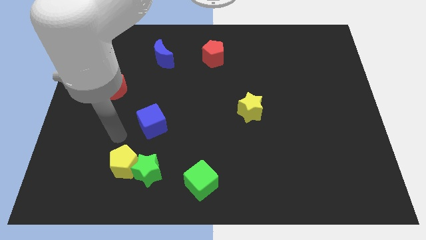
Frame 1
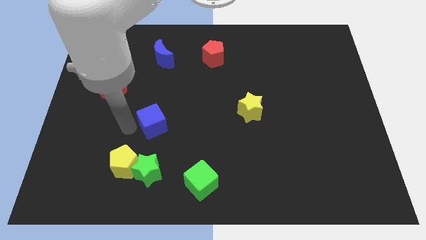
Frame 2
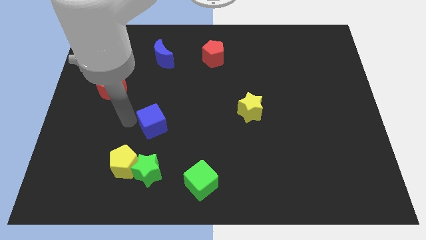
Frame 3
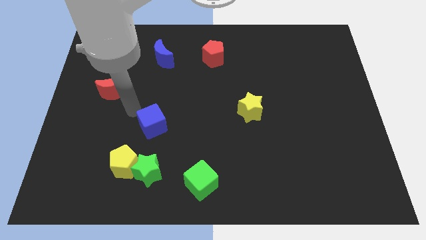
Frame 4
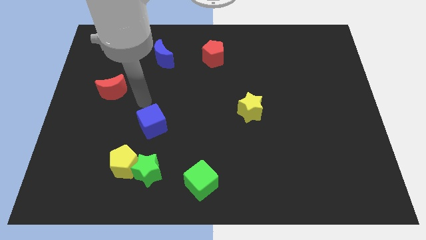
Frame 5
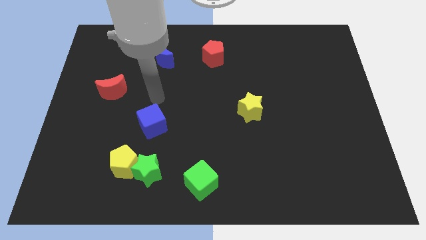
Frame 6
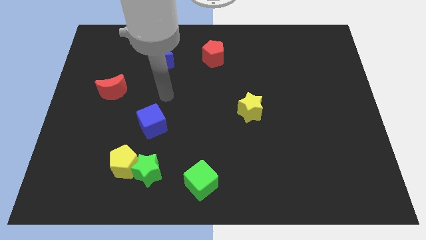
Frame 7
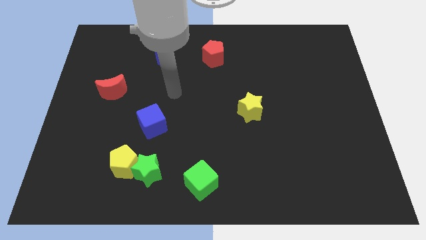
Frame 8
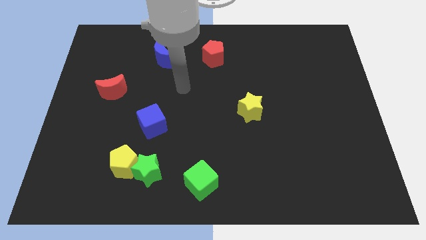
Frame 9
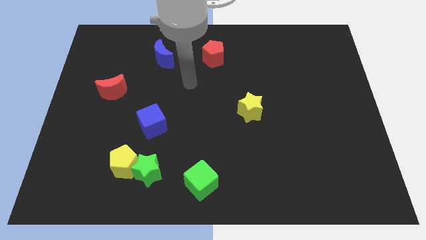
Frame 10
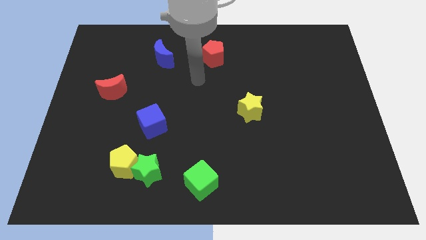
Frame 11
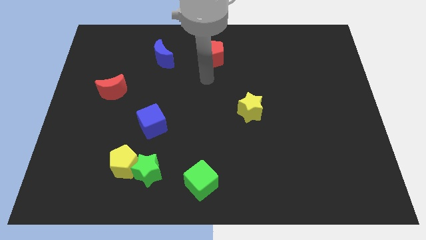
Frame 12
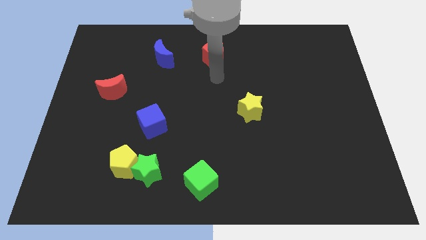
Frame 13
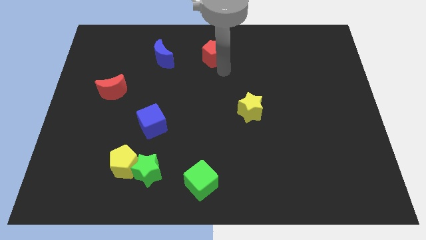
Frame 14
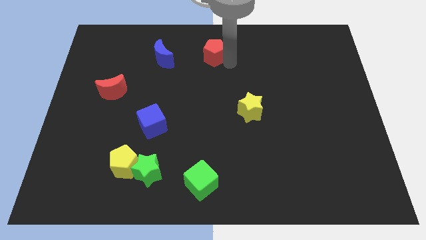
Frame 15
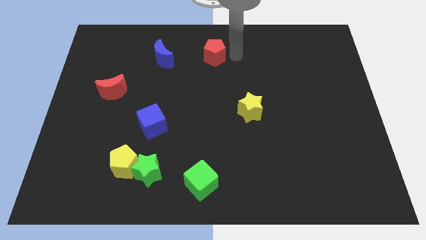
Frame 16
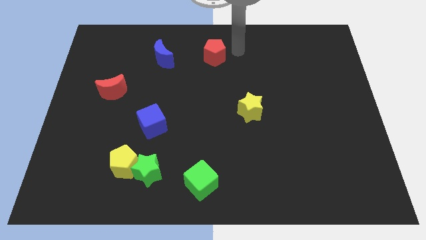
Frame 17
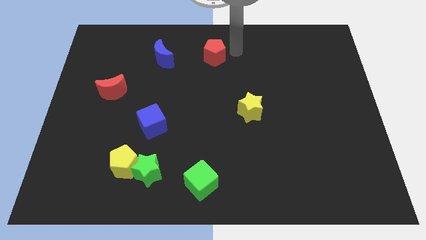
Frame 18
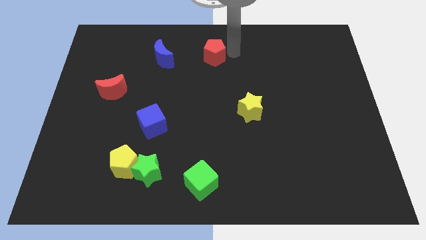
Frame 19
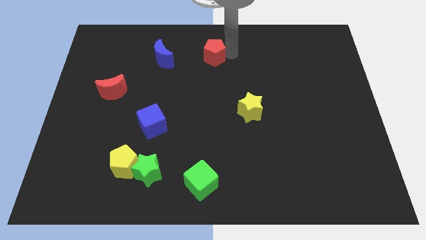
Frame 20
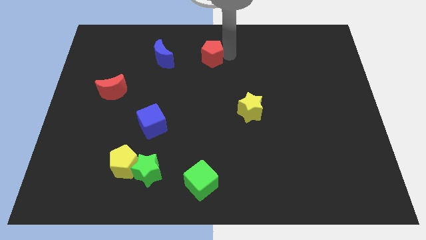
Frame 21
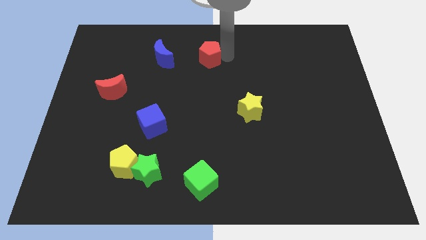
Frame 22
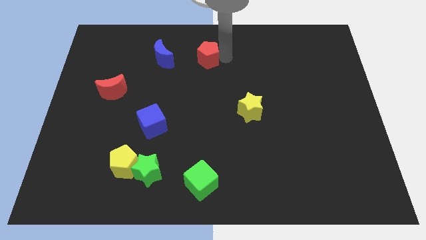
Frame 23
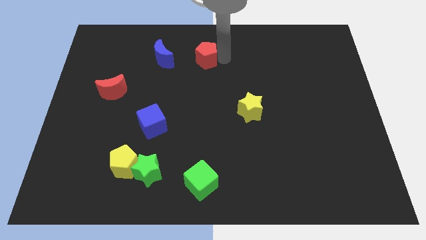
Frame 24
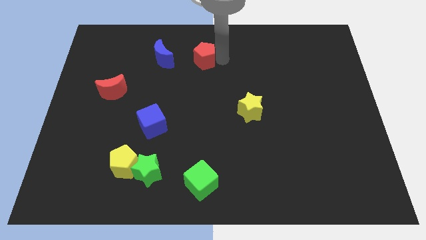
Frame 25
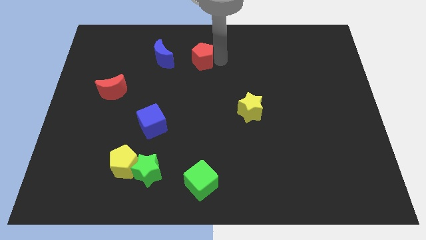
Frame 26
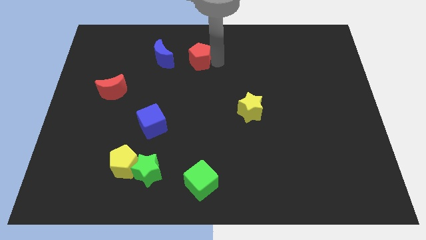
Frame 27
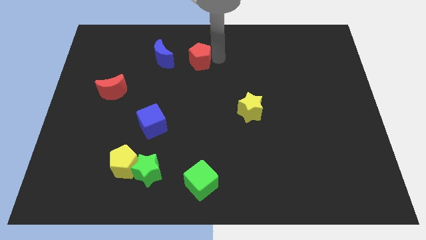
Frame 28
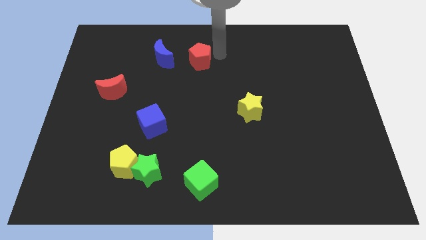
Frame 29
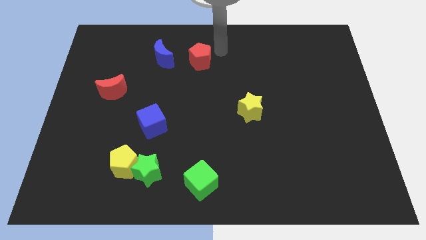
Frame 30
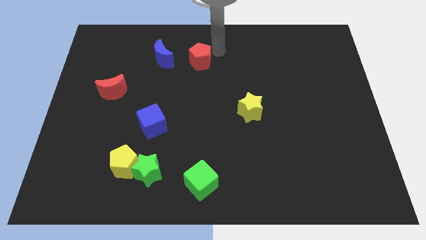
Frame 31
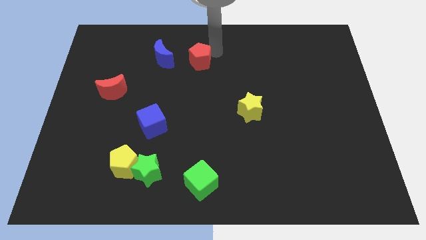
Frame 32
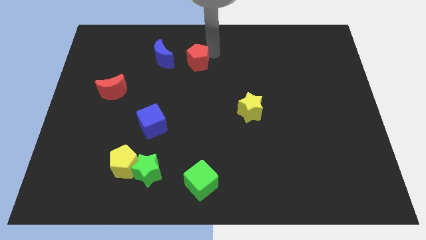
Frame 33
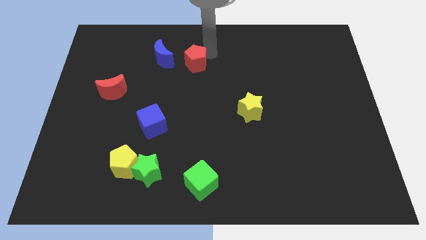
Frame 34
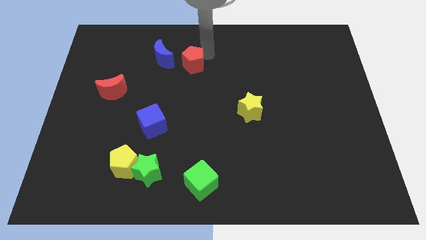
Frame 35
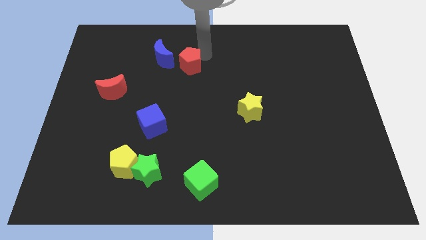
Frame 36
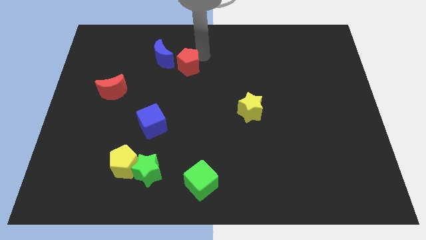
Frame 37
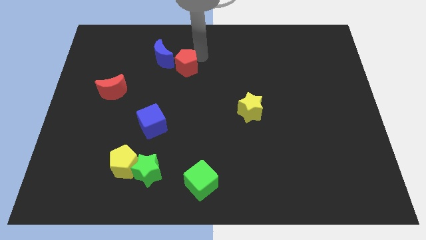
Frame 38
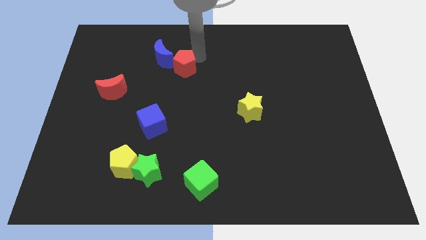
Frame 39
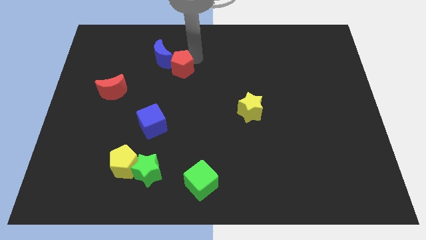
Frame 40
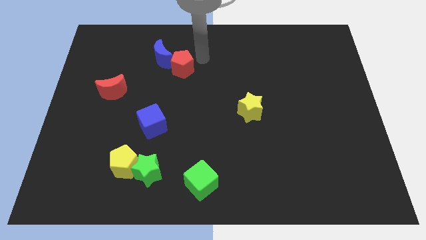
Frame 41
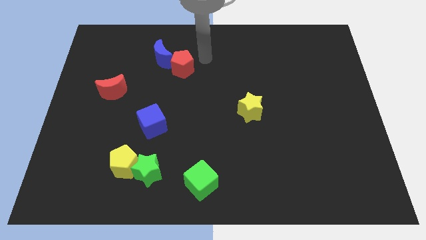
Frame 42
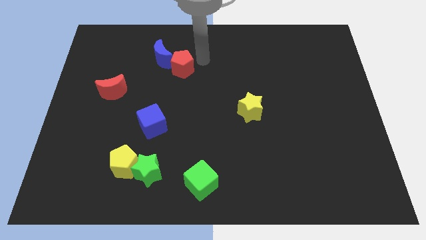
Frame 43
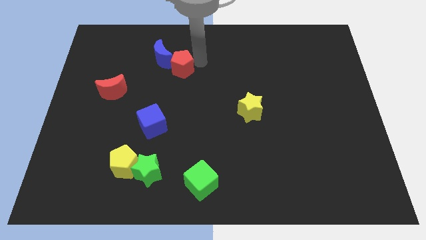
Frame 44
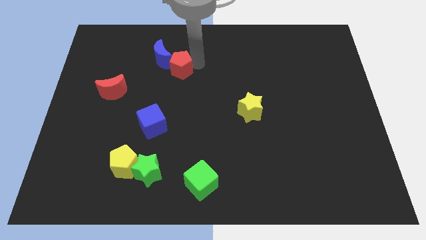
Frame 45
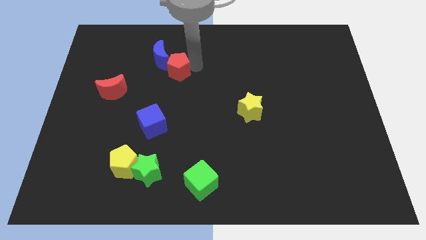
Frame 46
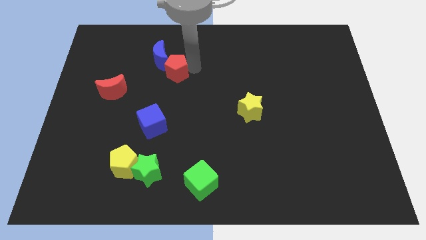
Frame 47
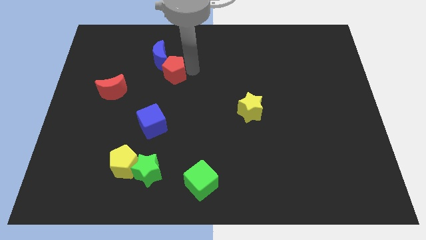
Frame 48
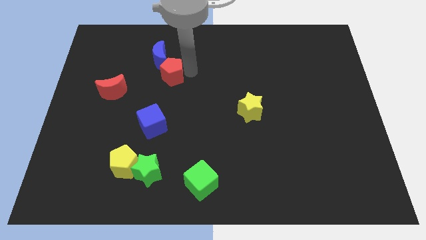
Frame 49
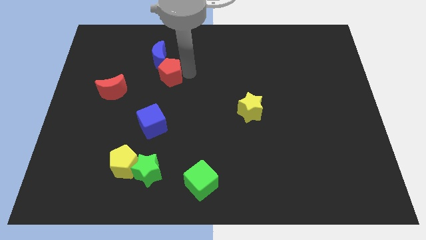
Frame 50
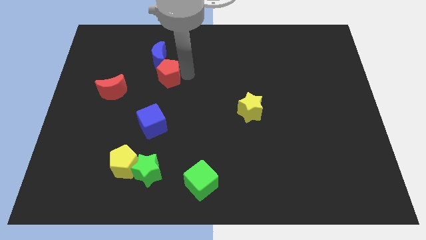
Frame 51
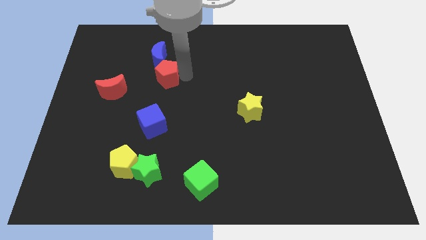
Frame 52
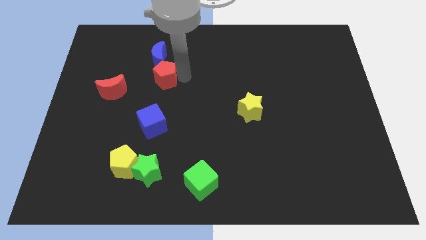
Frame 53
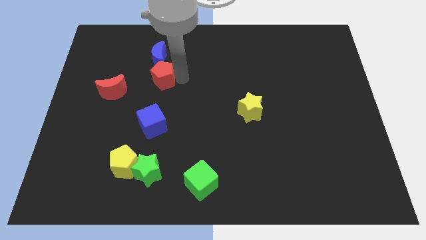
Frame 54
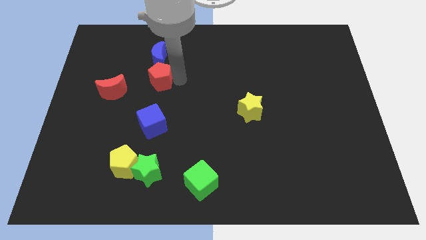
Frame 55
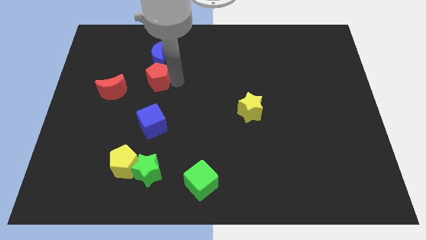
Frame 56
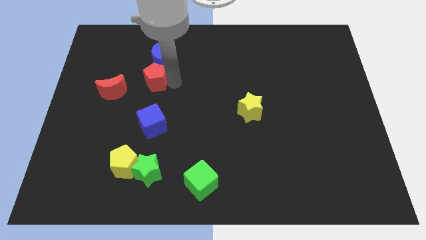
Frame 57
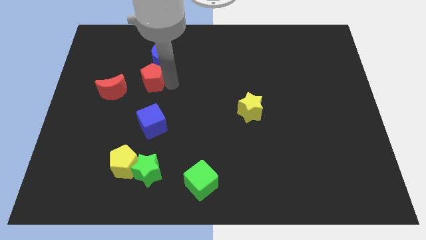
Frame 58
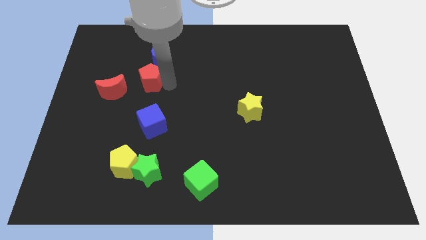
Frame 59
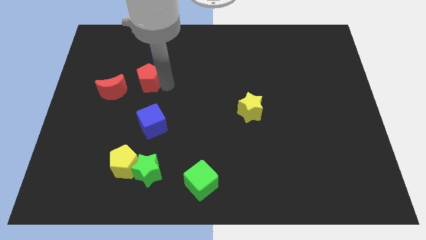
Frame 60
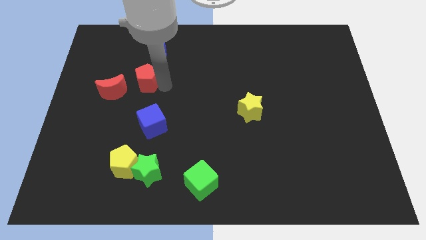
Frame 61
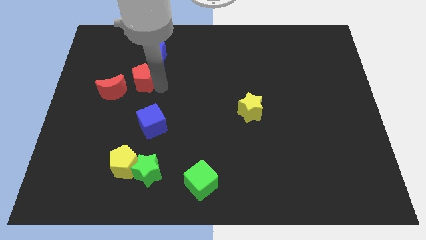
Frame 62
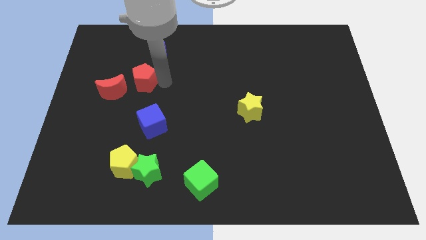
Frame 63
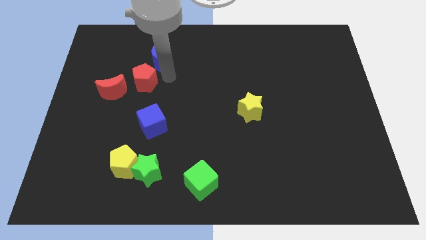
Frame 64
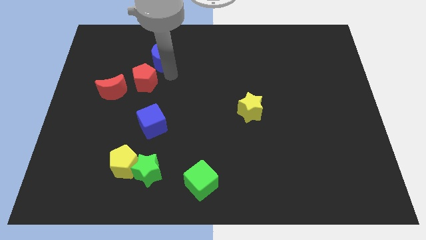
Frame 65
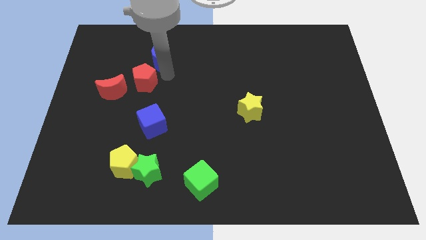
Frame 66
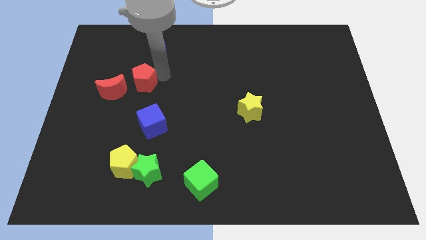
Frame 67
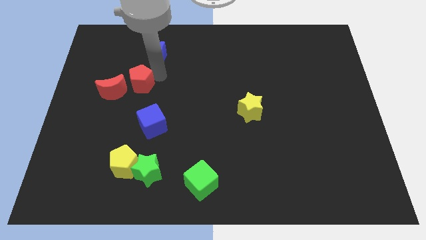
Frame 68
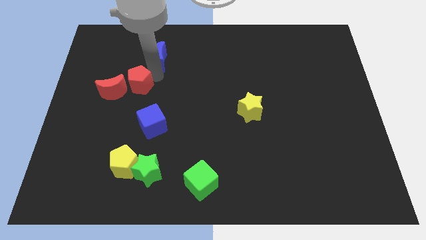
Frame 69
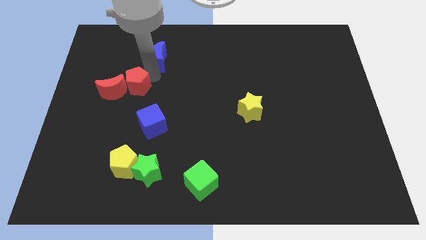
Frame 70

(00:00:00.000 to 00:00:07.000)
move the red pentagon to the red moon
